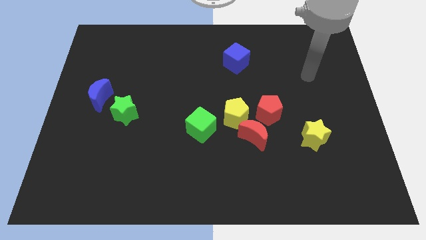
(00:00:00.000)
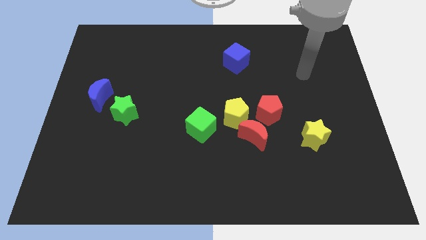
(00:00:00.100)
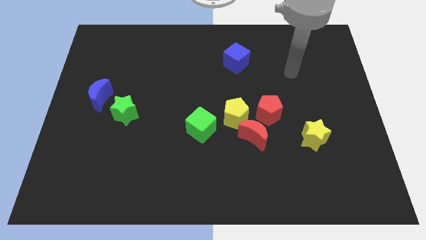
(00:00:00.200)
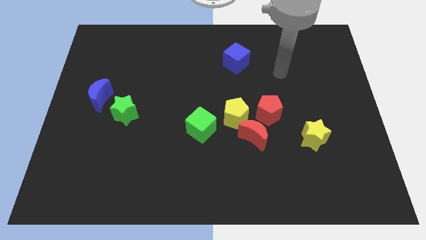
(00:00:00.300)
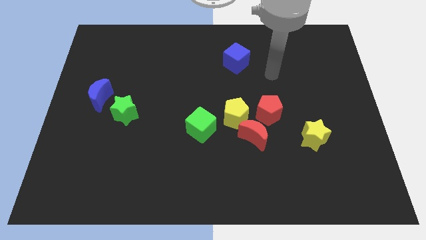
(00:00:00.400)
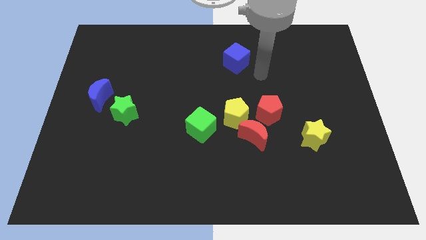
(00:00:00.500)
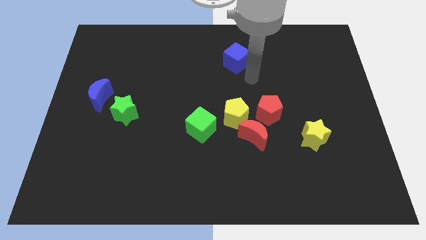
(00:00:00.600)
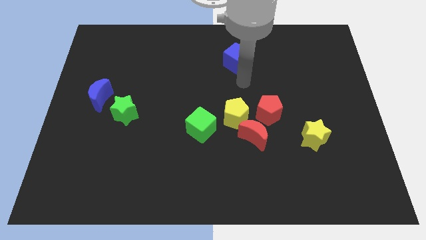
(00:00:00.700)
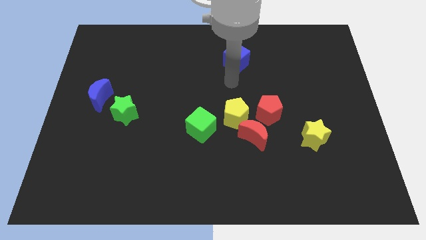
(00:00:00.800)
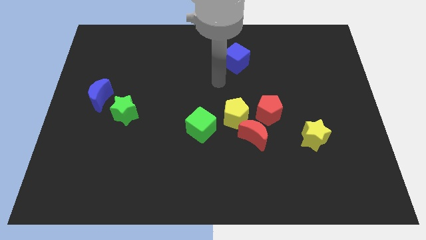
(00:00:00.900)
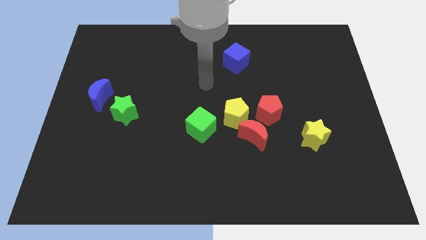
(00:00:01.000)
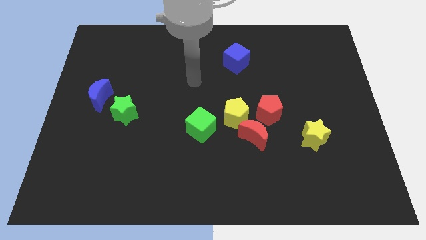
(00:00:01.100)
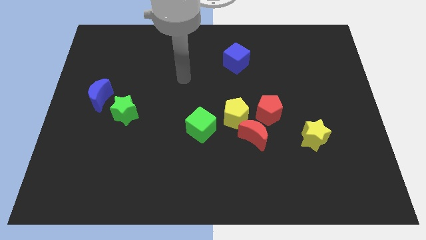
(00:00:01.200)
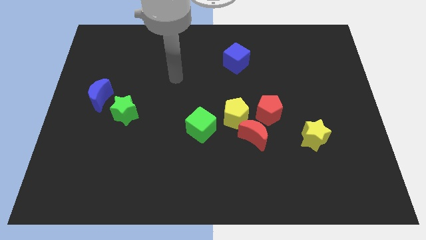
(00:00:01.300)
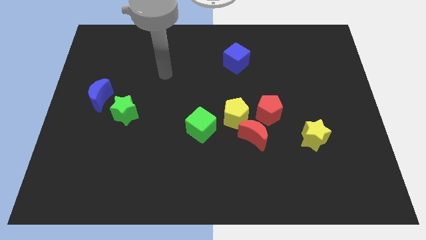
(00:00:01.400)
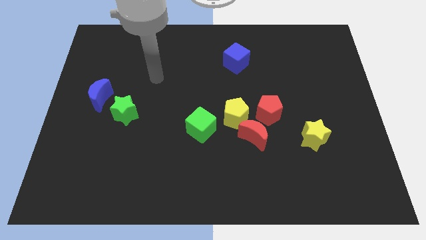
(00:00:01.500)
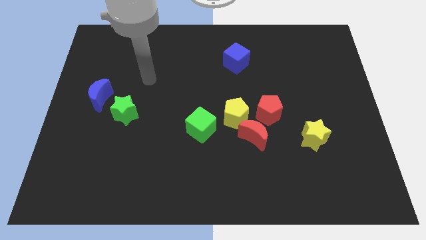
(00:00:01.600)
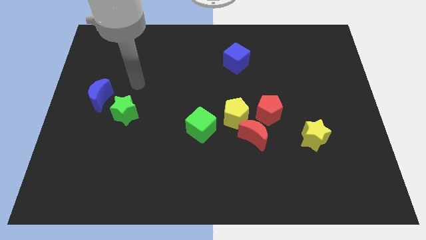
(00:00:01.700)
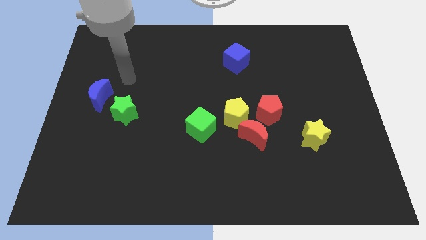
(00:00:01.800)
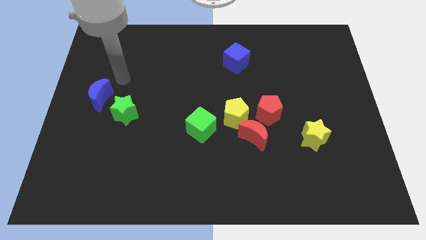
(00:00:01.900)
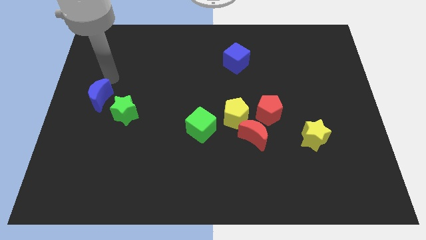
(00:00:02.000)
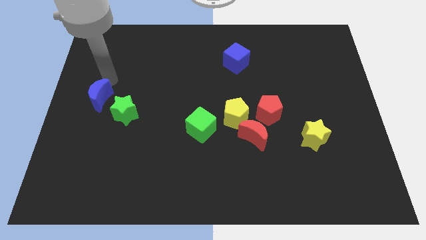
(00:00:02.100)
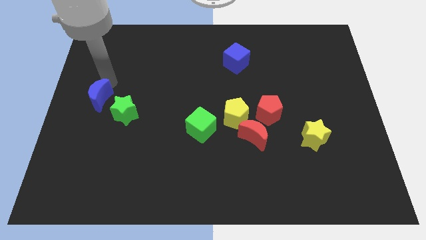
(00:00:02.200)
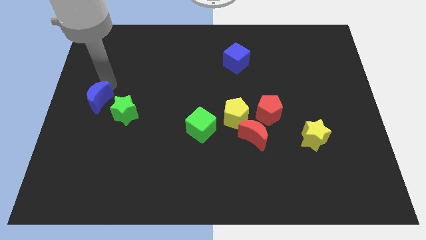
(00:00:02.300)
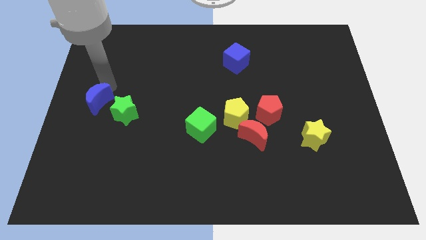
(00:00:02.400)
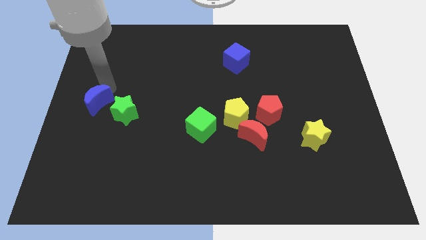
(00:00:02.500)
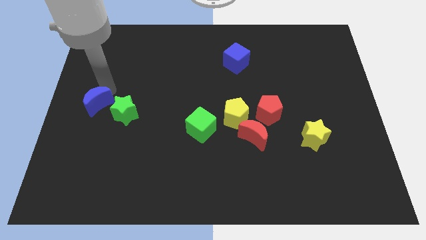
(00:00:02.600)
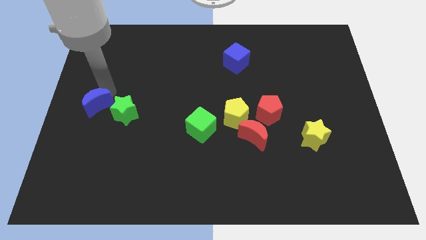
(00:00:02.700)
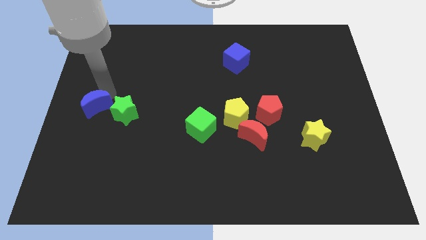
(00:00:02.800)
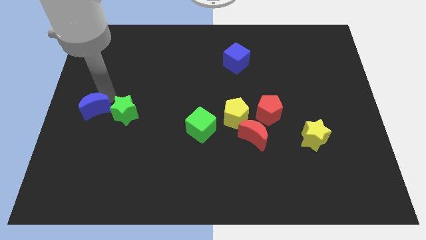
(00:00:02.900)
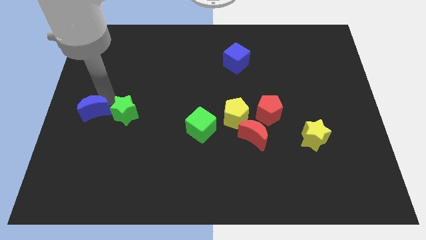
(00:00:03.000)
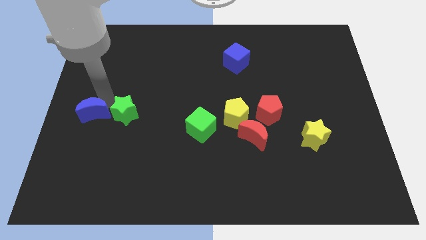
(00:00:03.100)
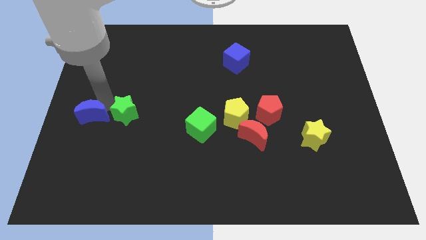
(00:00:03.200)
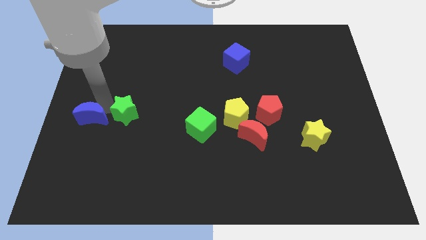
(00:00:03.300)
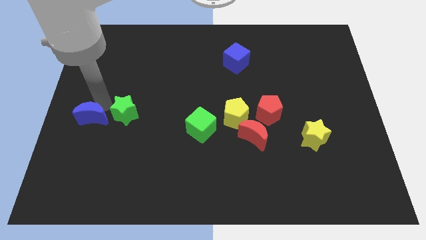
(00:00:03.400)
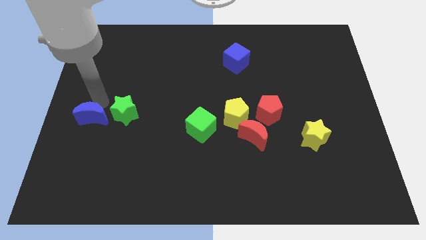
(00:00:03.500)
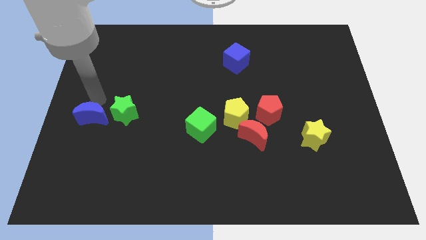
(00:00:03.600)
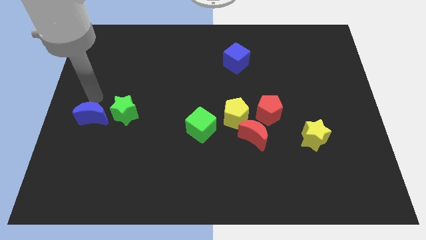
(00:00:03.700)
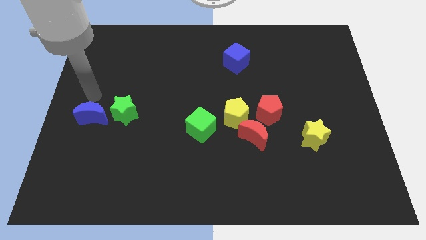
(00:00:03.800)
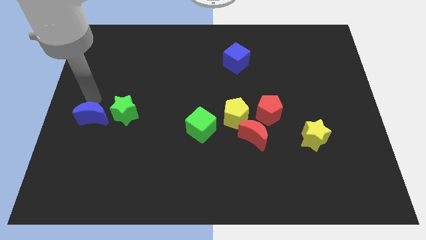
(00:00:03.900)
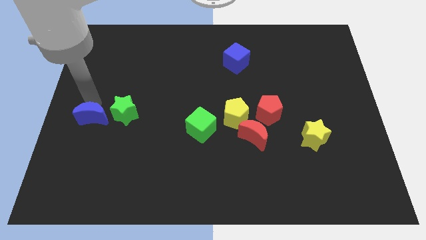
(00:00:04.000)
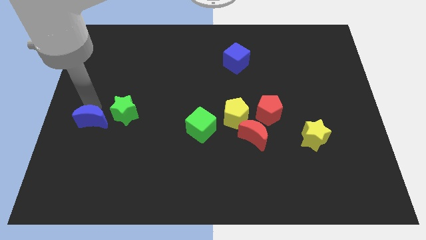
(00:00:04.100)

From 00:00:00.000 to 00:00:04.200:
slightly move the blue moon downwards

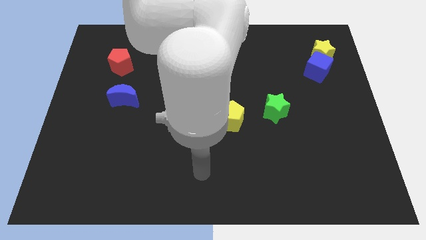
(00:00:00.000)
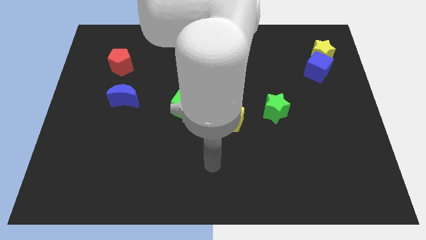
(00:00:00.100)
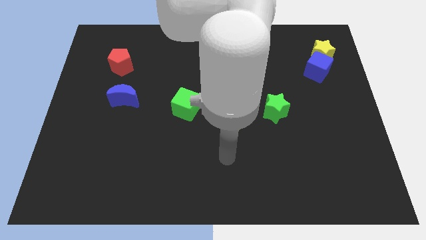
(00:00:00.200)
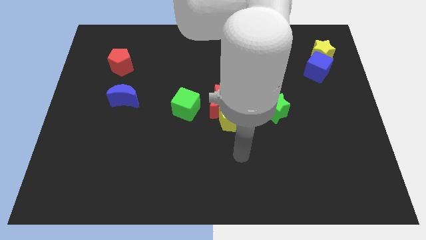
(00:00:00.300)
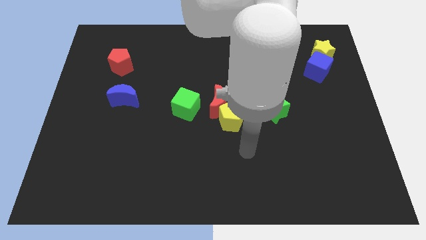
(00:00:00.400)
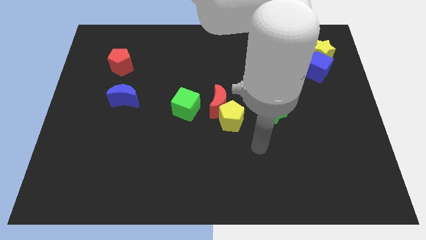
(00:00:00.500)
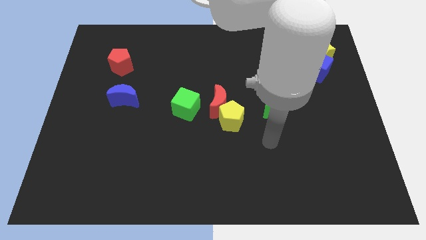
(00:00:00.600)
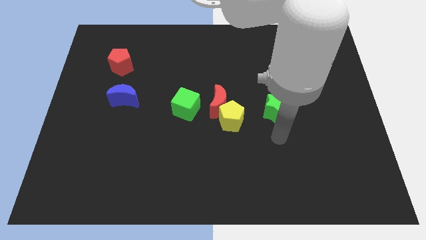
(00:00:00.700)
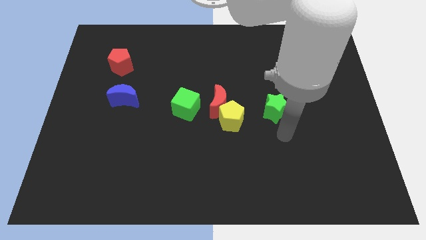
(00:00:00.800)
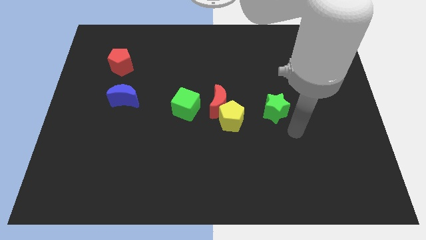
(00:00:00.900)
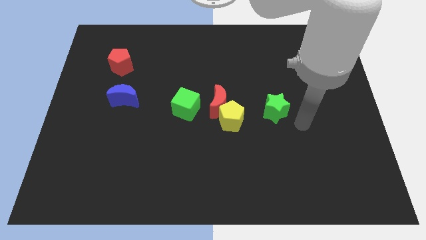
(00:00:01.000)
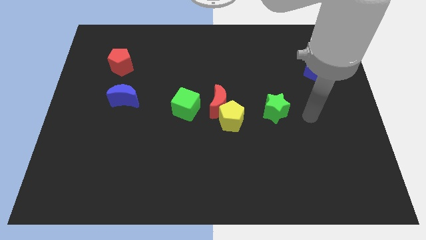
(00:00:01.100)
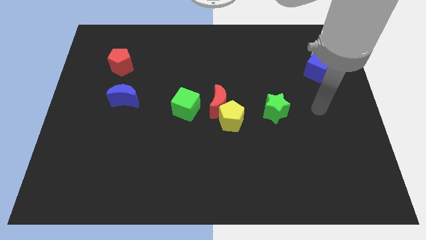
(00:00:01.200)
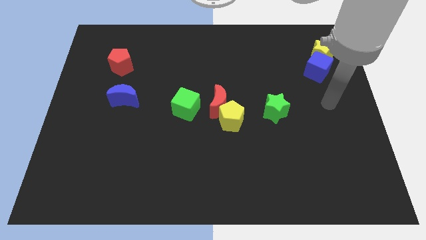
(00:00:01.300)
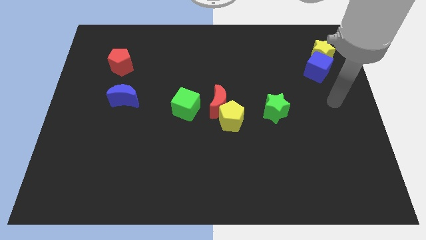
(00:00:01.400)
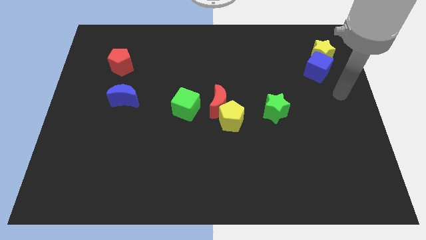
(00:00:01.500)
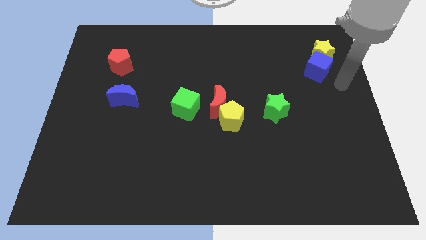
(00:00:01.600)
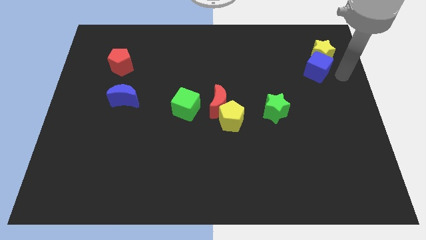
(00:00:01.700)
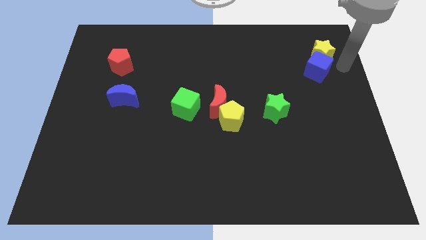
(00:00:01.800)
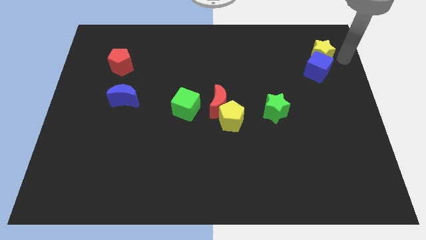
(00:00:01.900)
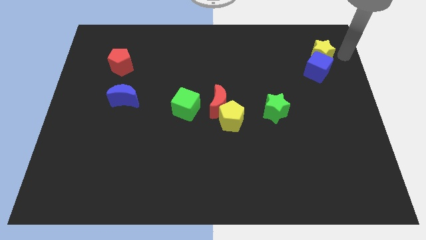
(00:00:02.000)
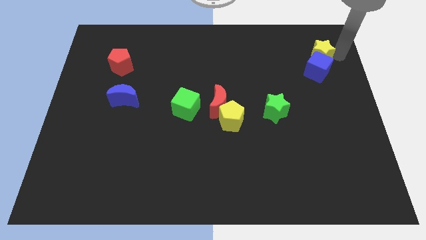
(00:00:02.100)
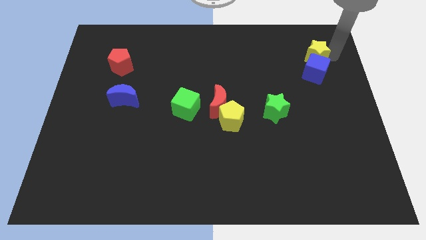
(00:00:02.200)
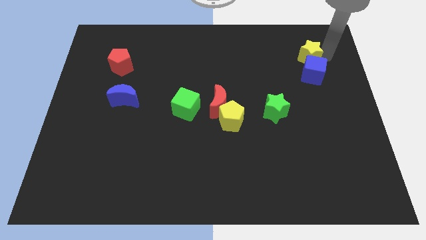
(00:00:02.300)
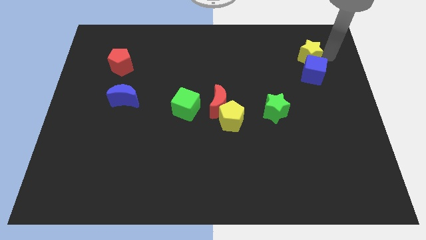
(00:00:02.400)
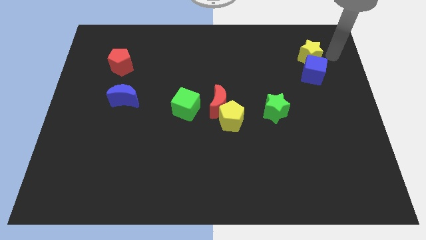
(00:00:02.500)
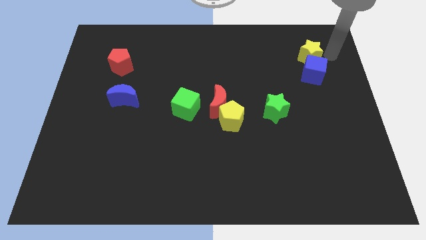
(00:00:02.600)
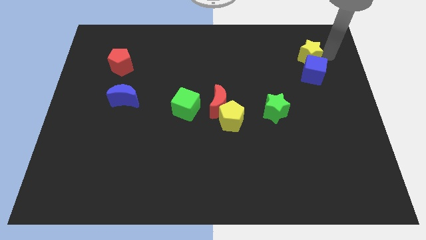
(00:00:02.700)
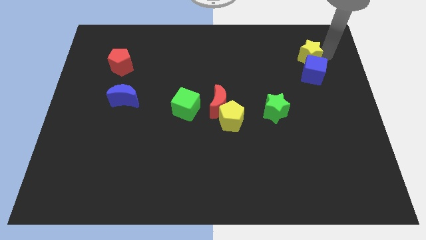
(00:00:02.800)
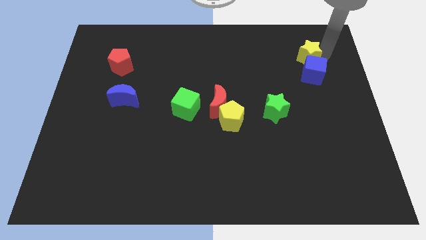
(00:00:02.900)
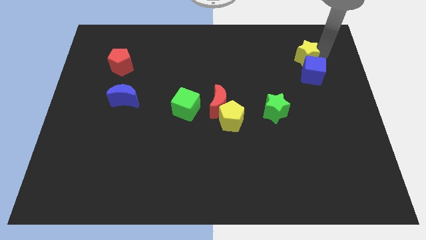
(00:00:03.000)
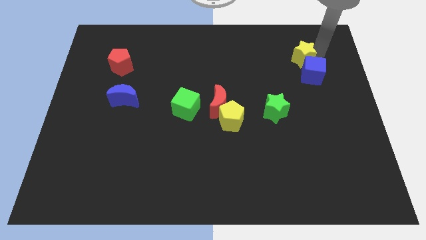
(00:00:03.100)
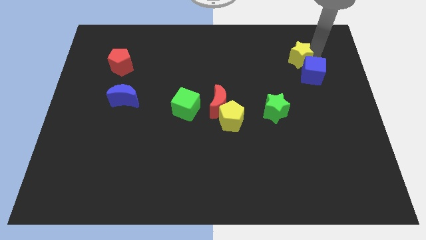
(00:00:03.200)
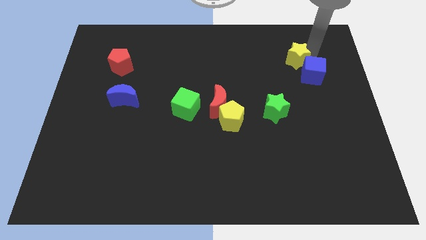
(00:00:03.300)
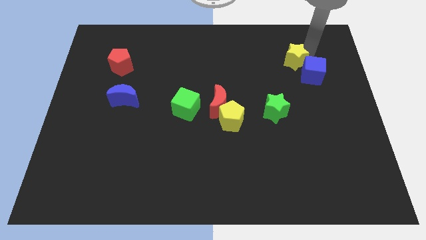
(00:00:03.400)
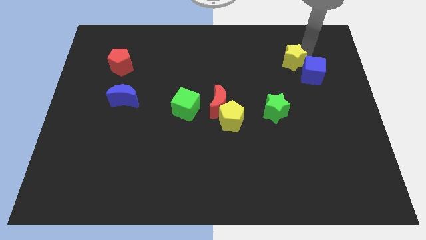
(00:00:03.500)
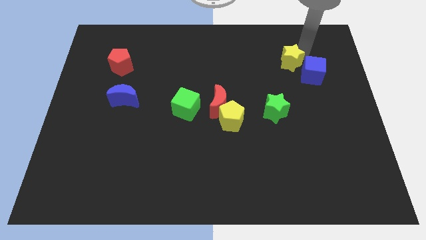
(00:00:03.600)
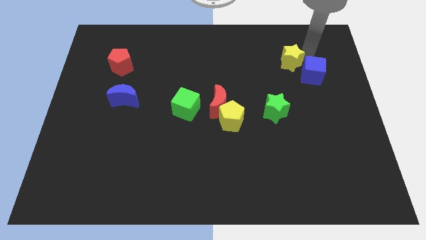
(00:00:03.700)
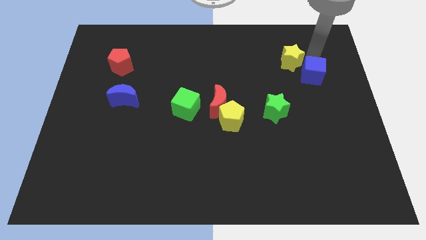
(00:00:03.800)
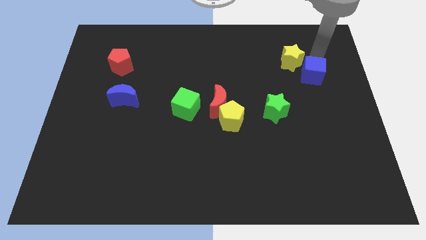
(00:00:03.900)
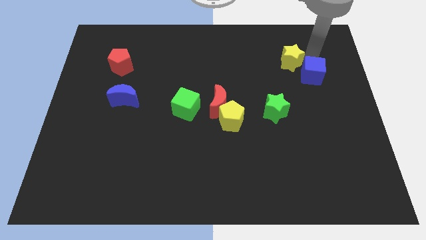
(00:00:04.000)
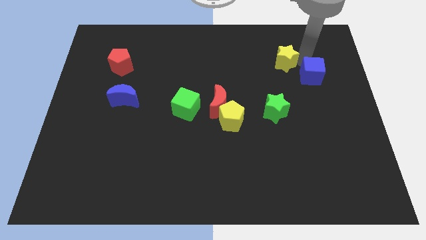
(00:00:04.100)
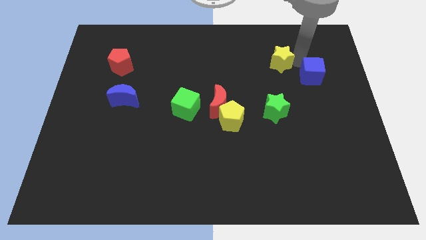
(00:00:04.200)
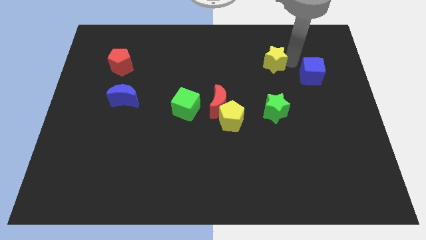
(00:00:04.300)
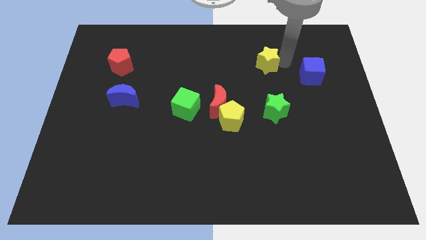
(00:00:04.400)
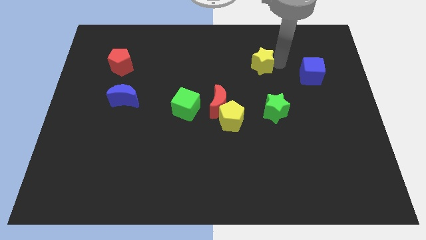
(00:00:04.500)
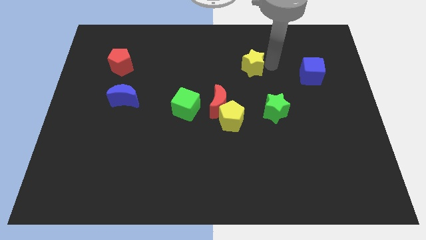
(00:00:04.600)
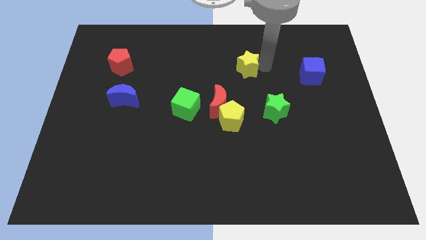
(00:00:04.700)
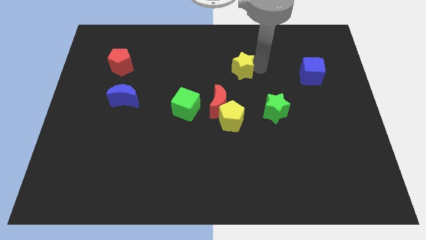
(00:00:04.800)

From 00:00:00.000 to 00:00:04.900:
slide the yellow star left
